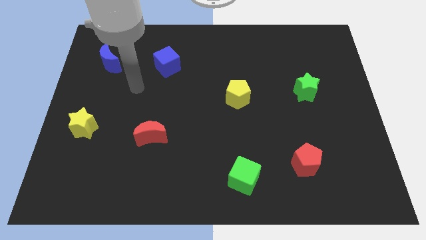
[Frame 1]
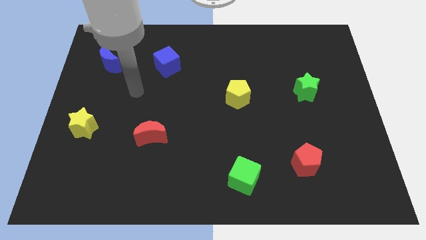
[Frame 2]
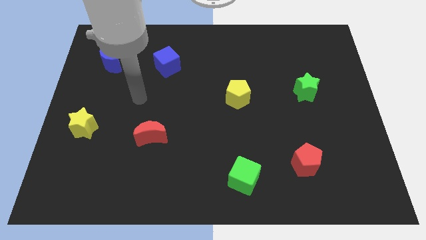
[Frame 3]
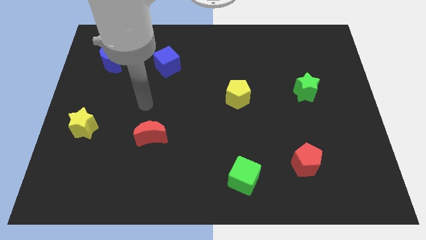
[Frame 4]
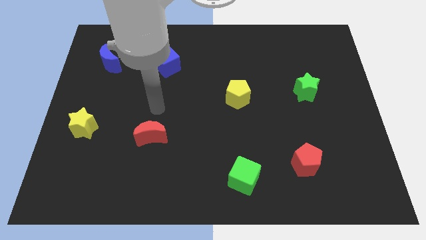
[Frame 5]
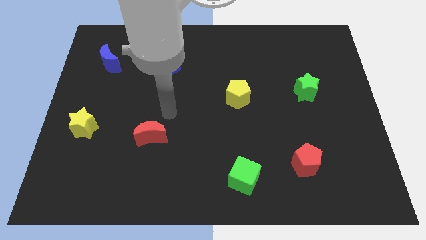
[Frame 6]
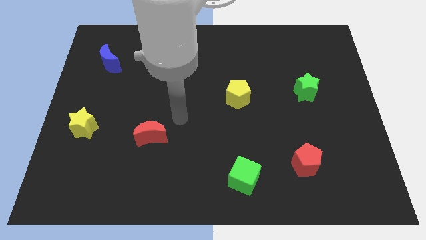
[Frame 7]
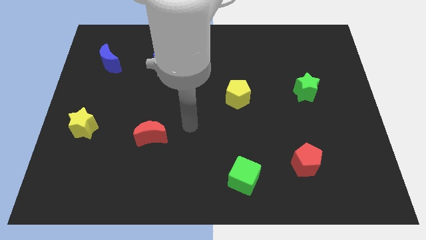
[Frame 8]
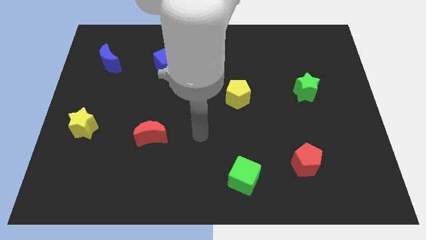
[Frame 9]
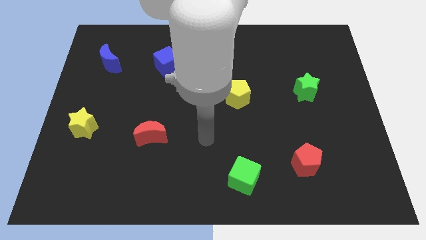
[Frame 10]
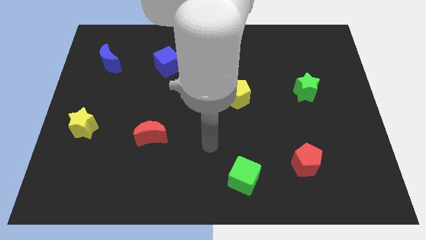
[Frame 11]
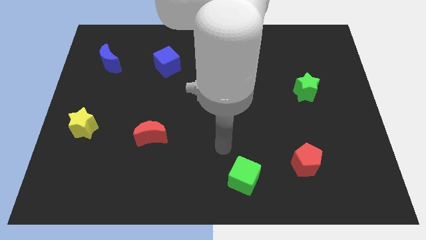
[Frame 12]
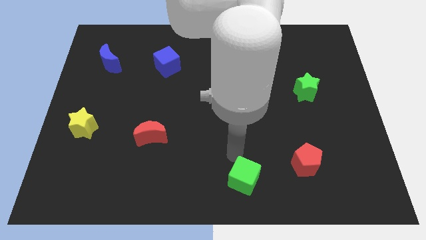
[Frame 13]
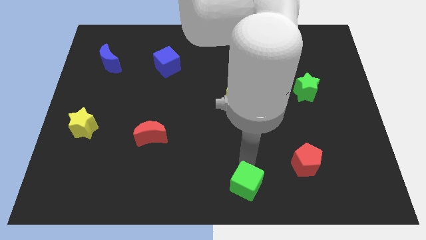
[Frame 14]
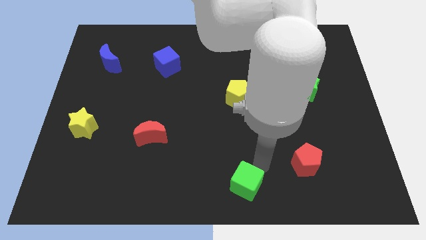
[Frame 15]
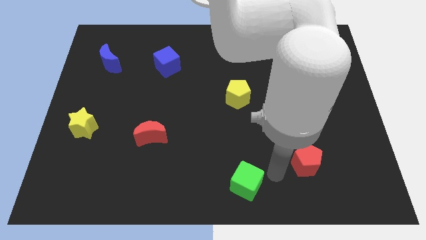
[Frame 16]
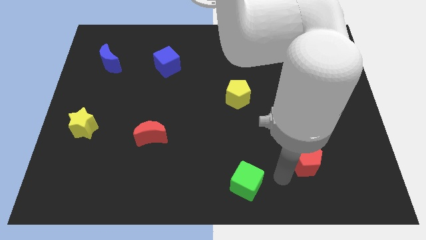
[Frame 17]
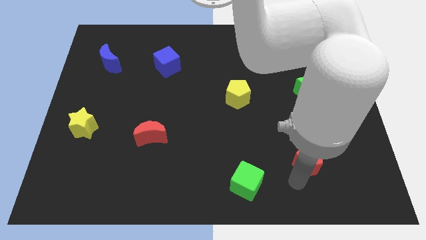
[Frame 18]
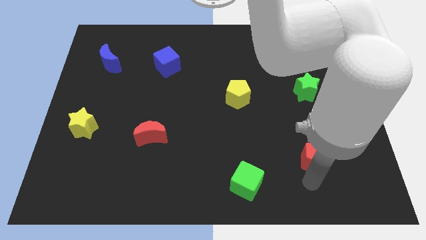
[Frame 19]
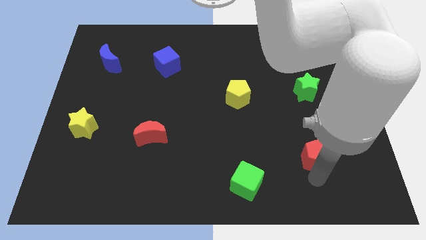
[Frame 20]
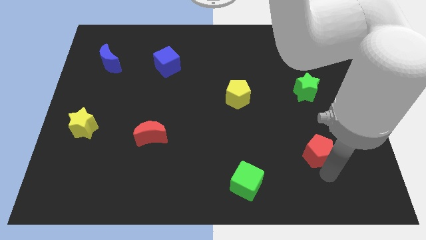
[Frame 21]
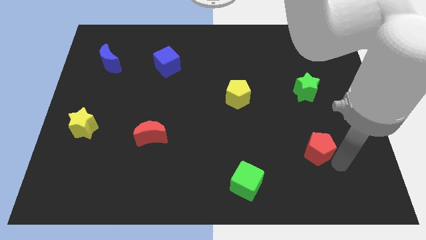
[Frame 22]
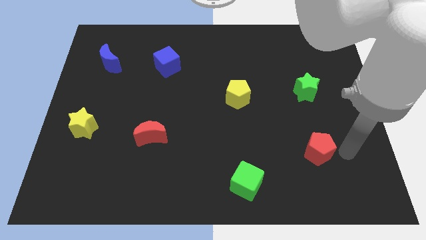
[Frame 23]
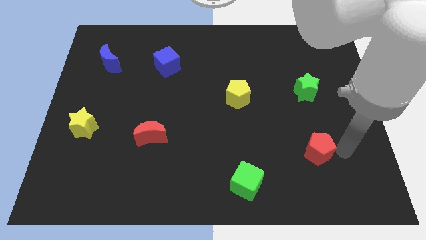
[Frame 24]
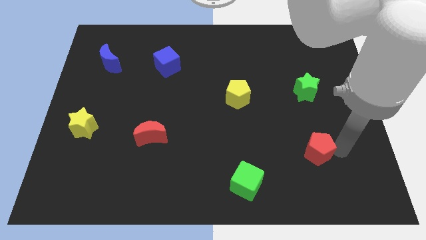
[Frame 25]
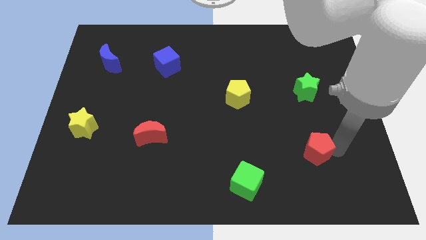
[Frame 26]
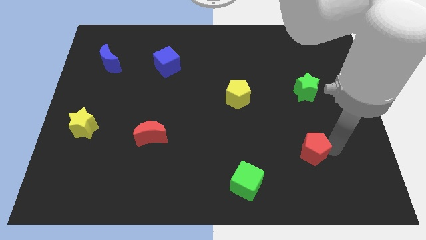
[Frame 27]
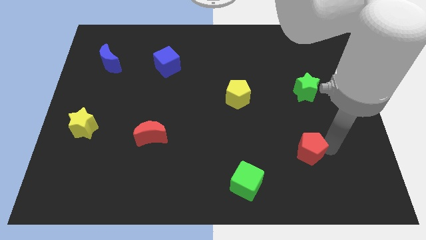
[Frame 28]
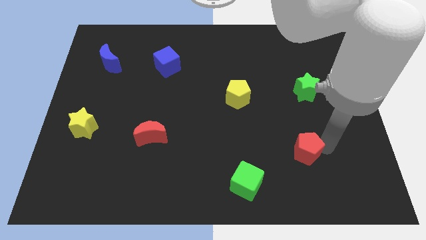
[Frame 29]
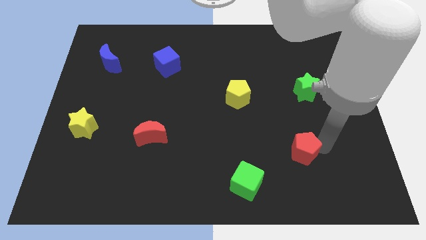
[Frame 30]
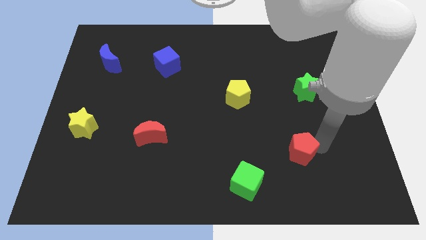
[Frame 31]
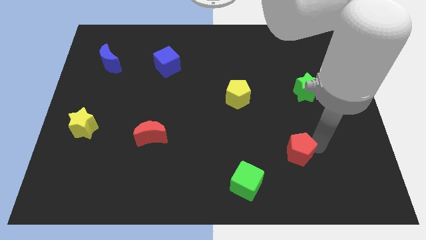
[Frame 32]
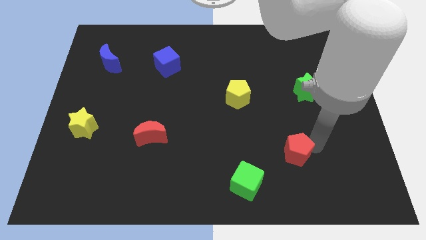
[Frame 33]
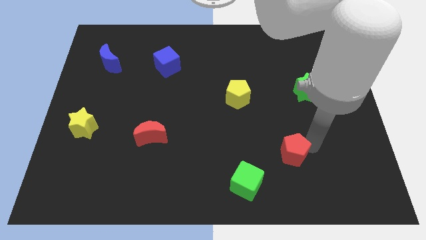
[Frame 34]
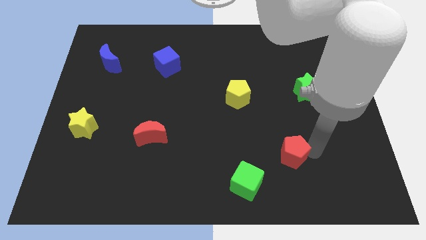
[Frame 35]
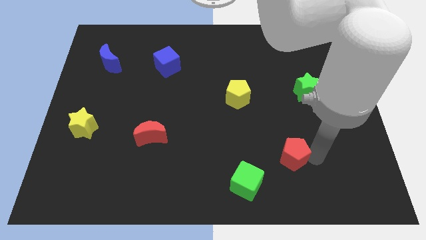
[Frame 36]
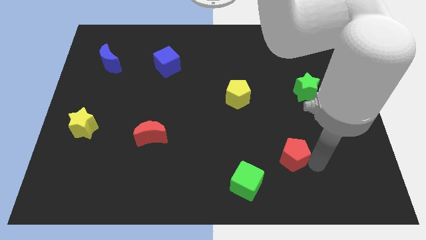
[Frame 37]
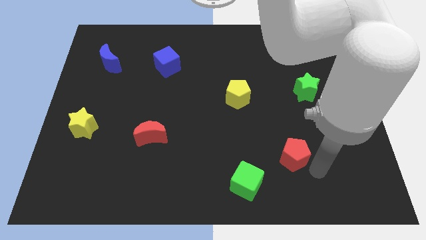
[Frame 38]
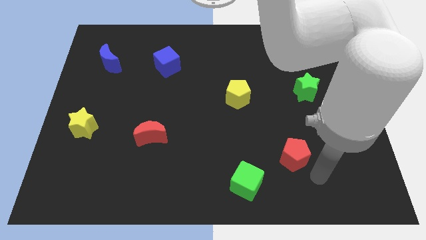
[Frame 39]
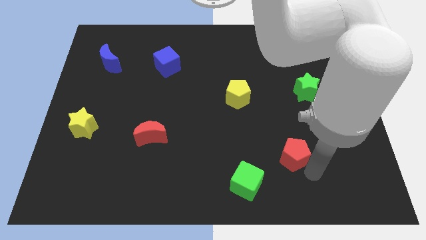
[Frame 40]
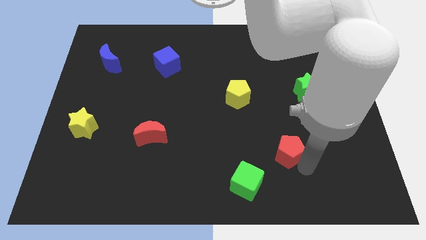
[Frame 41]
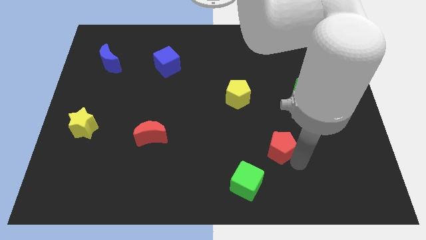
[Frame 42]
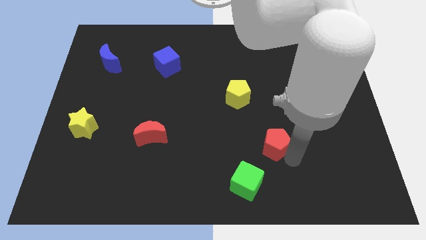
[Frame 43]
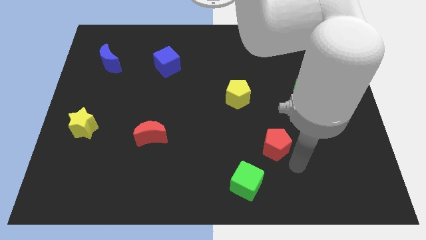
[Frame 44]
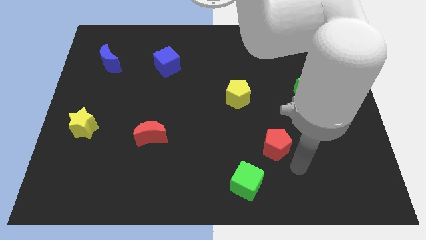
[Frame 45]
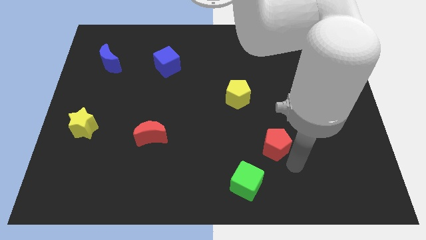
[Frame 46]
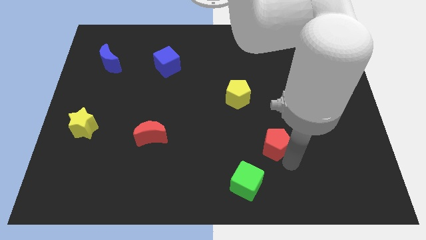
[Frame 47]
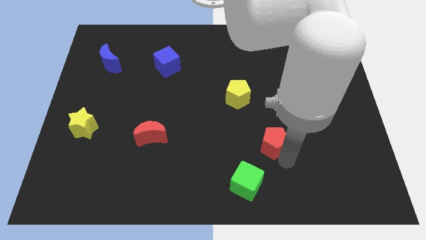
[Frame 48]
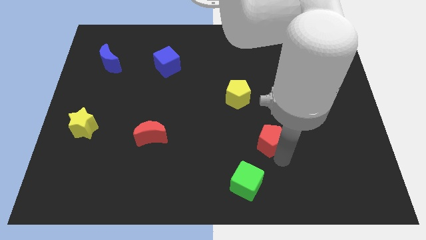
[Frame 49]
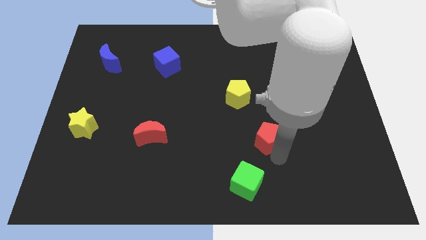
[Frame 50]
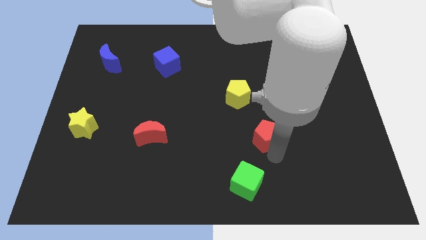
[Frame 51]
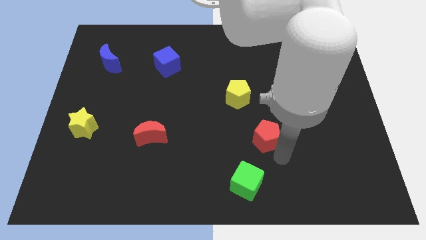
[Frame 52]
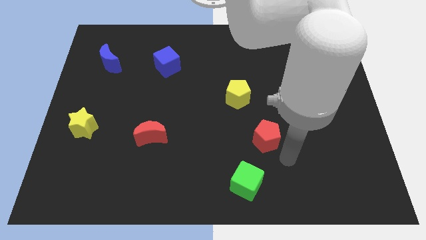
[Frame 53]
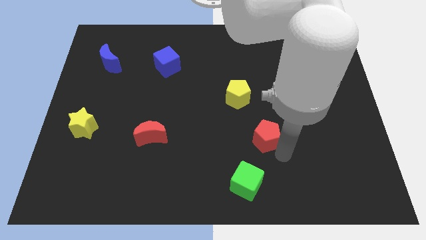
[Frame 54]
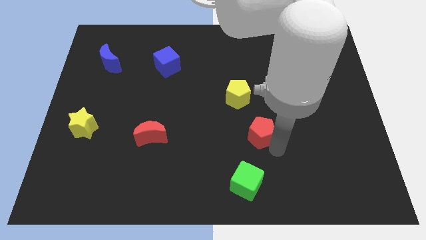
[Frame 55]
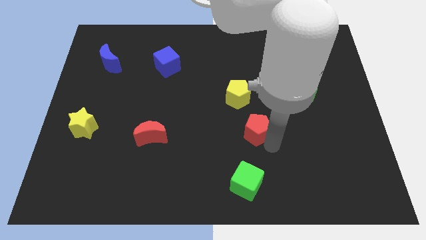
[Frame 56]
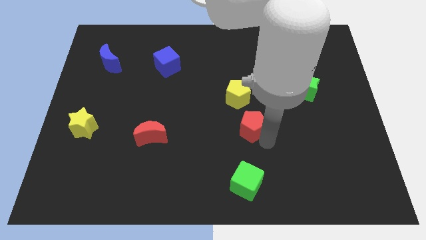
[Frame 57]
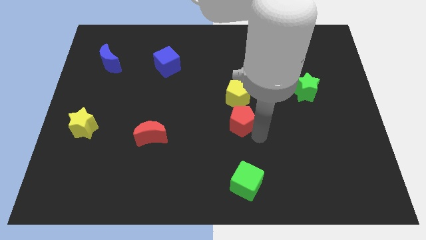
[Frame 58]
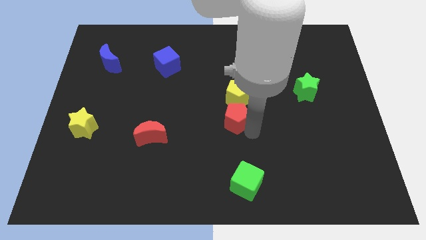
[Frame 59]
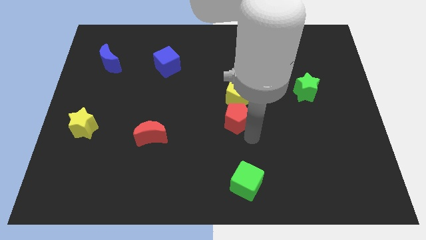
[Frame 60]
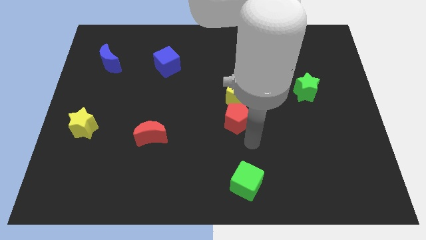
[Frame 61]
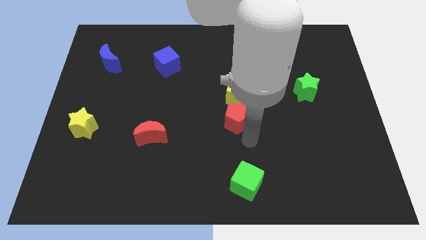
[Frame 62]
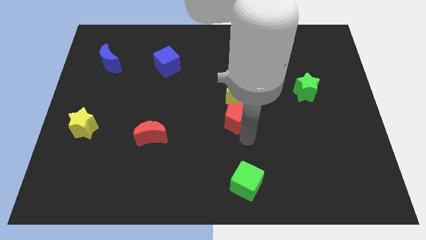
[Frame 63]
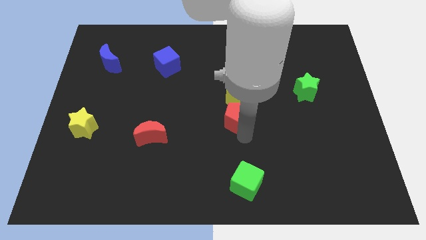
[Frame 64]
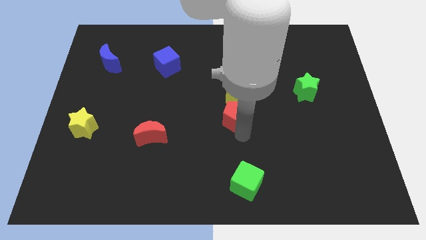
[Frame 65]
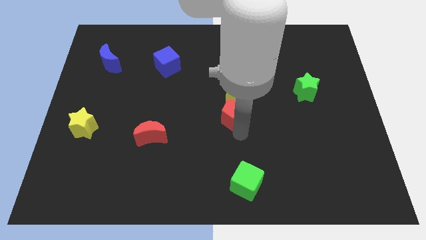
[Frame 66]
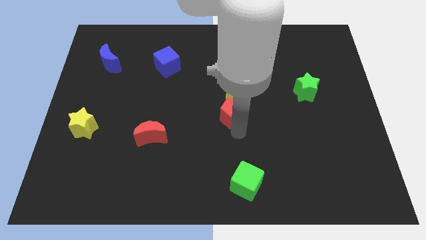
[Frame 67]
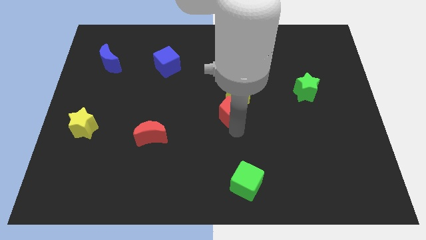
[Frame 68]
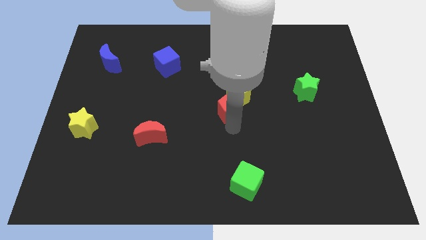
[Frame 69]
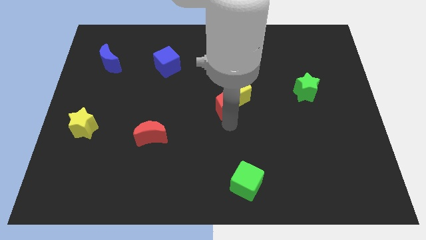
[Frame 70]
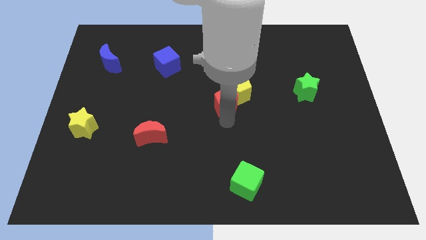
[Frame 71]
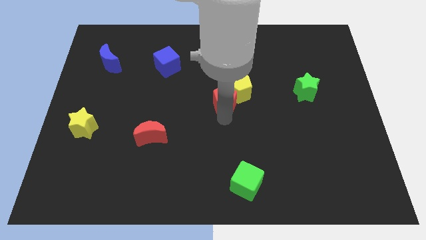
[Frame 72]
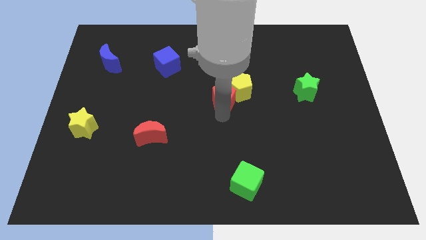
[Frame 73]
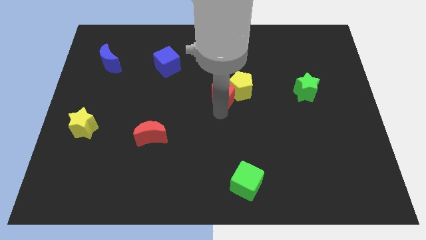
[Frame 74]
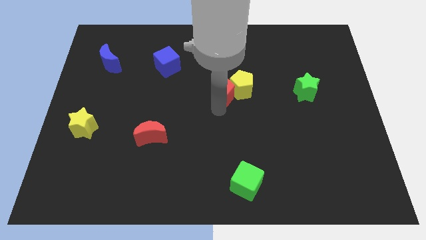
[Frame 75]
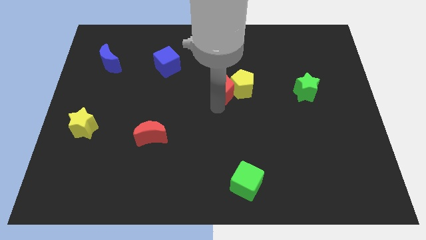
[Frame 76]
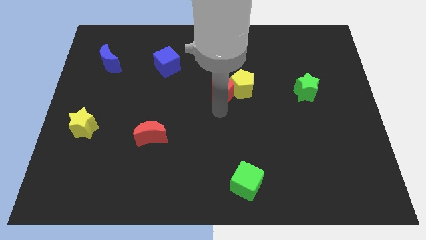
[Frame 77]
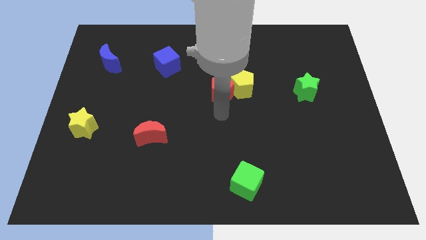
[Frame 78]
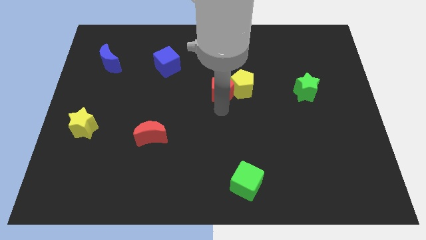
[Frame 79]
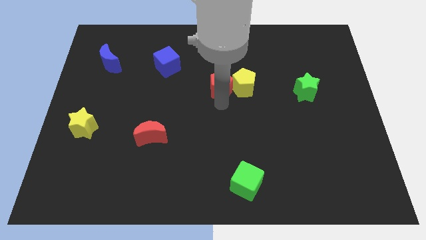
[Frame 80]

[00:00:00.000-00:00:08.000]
slide the red pentagon to the top left of the yellow pentagon
